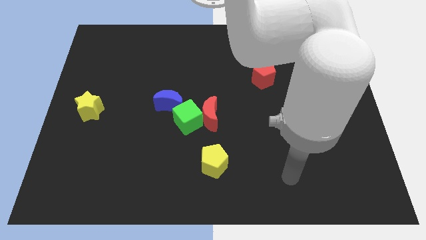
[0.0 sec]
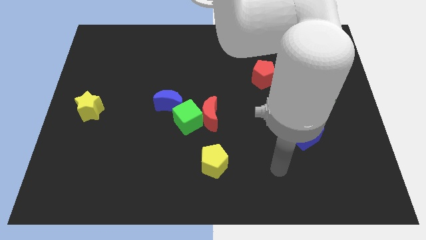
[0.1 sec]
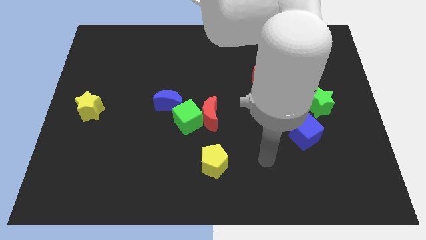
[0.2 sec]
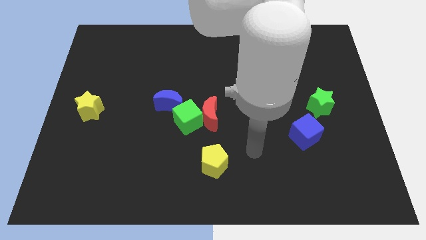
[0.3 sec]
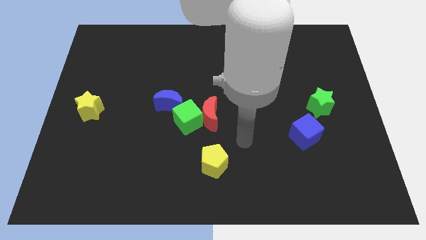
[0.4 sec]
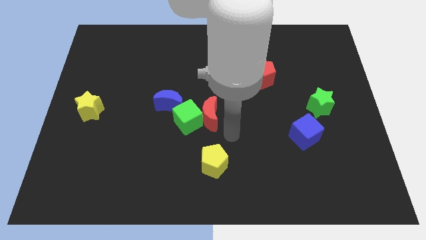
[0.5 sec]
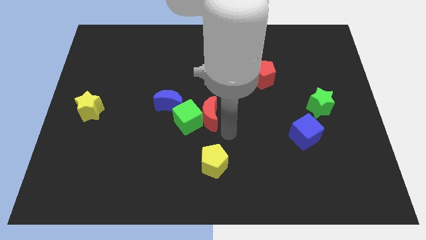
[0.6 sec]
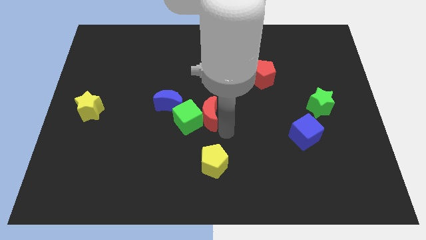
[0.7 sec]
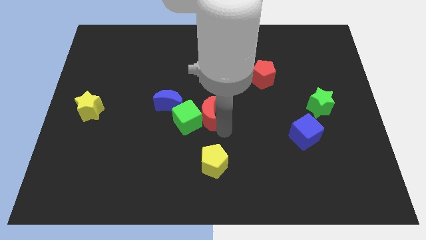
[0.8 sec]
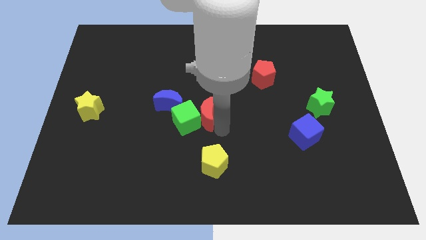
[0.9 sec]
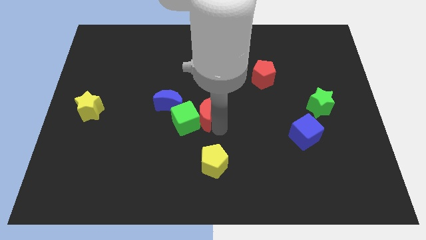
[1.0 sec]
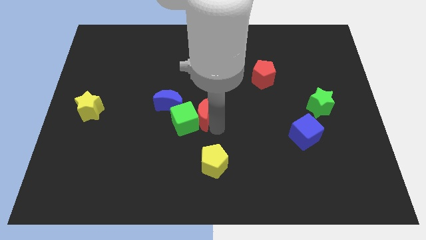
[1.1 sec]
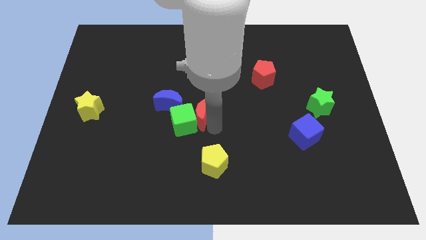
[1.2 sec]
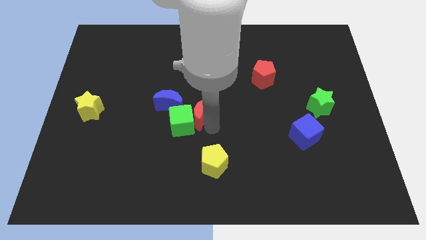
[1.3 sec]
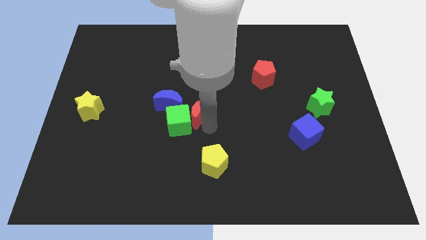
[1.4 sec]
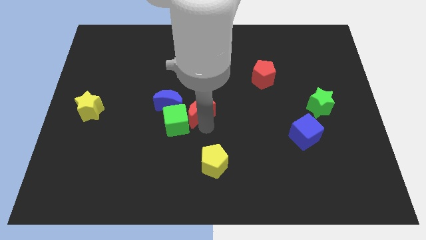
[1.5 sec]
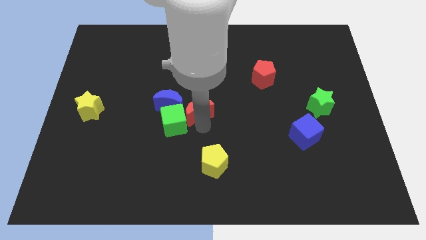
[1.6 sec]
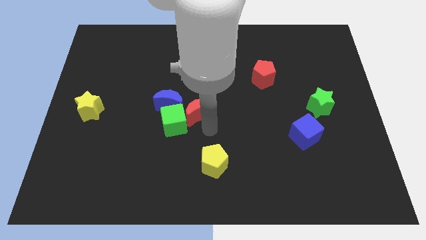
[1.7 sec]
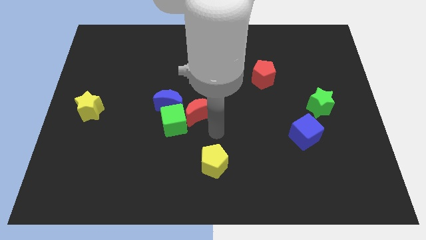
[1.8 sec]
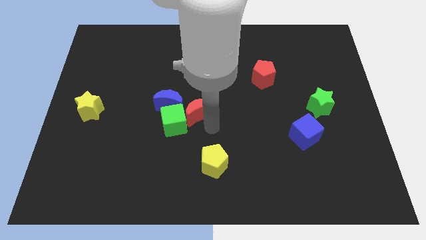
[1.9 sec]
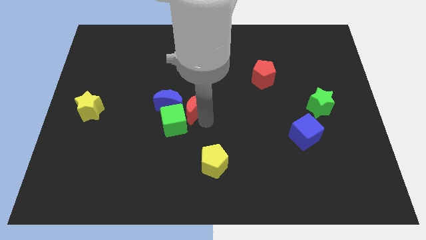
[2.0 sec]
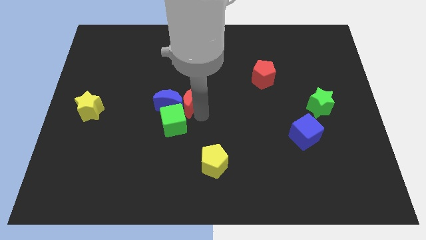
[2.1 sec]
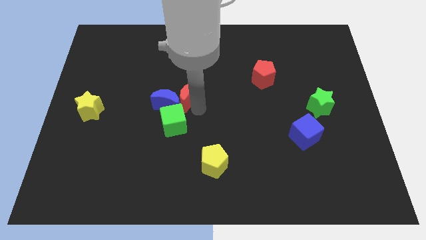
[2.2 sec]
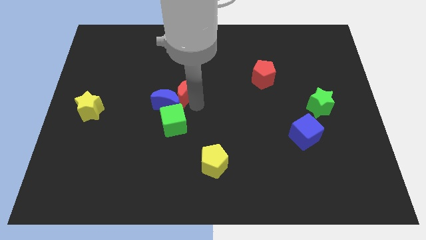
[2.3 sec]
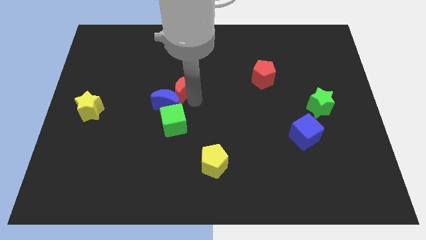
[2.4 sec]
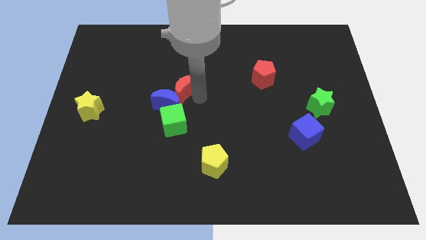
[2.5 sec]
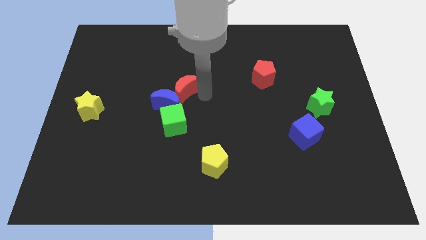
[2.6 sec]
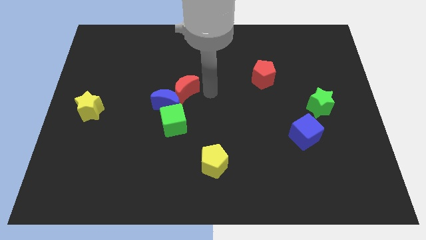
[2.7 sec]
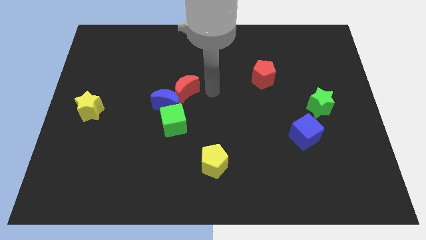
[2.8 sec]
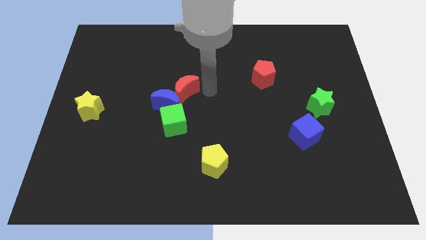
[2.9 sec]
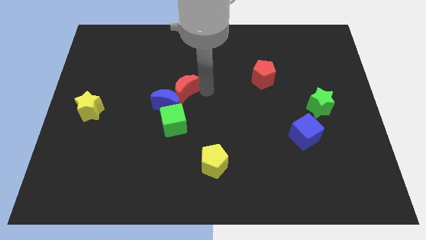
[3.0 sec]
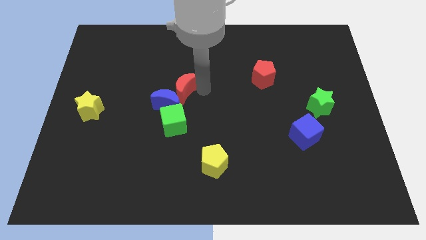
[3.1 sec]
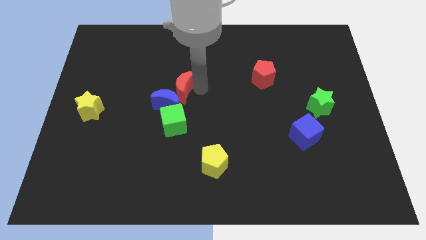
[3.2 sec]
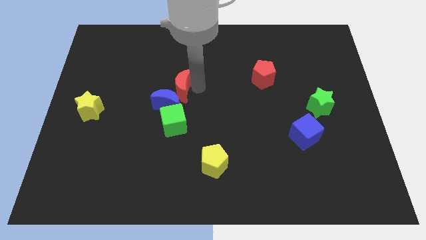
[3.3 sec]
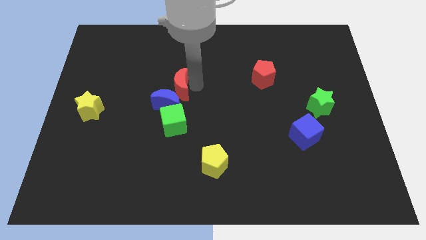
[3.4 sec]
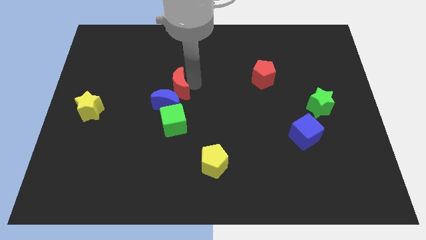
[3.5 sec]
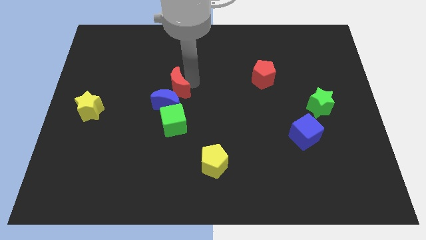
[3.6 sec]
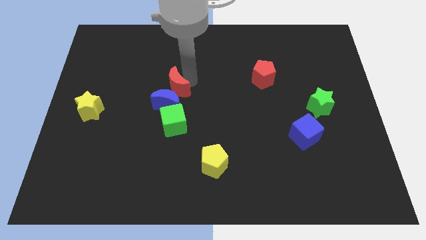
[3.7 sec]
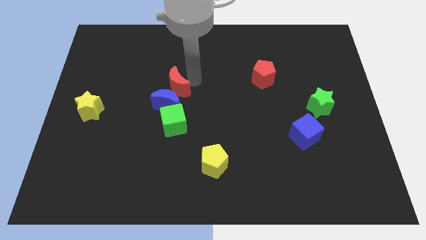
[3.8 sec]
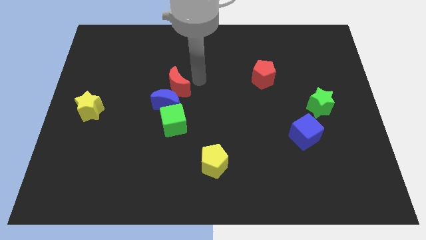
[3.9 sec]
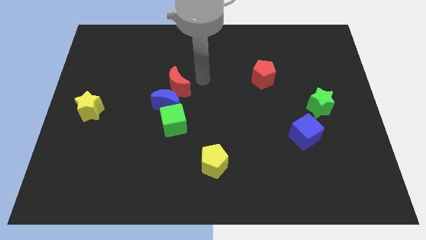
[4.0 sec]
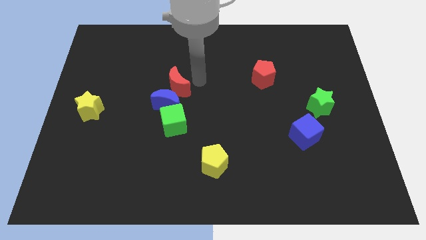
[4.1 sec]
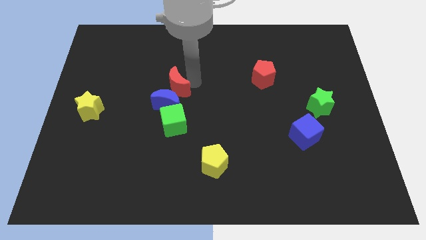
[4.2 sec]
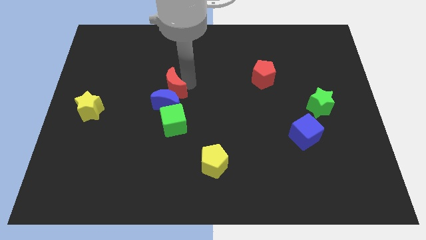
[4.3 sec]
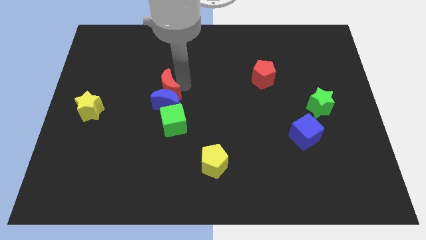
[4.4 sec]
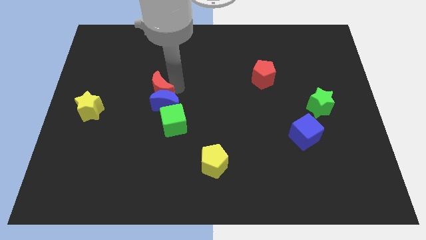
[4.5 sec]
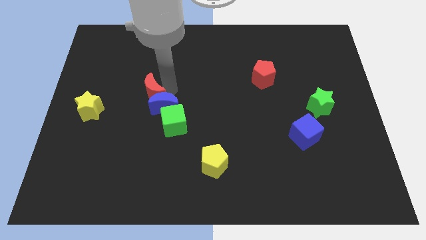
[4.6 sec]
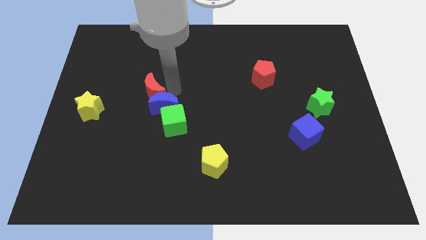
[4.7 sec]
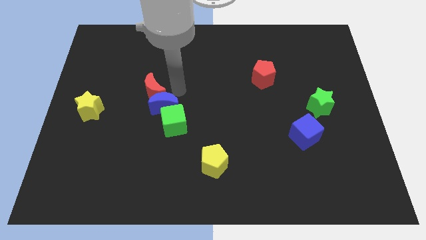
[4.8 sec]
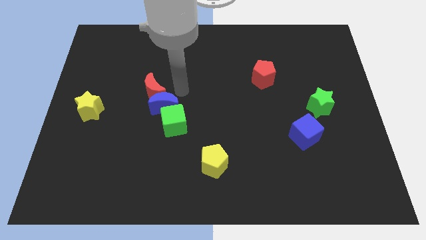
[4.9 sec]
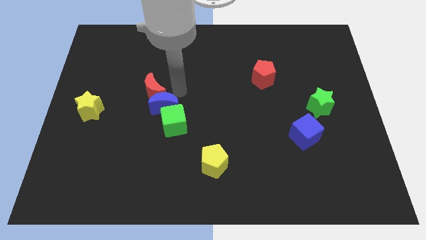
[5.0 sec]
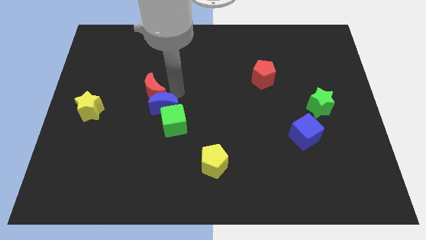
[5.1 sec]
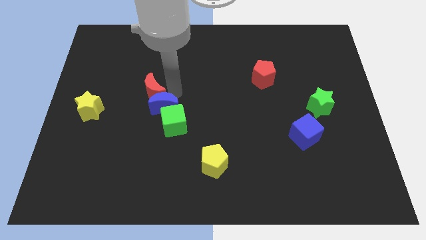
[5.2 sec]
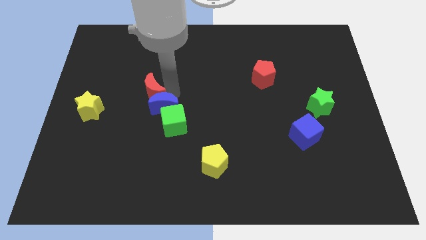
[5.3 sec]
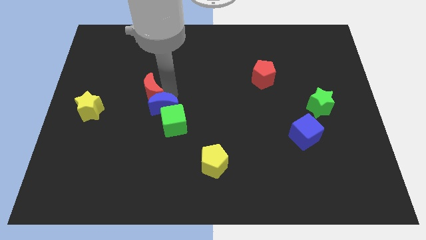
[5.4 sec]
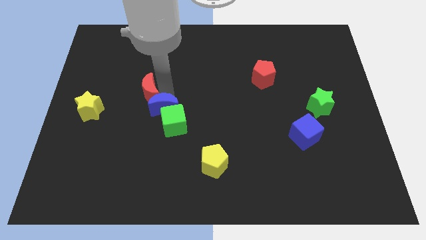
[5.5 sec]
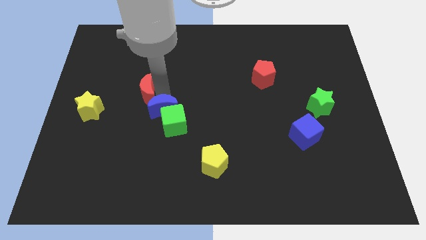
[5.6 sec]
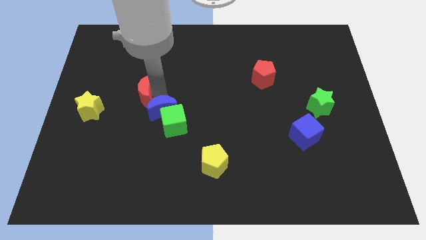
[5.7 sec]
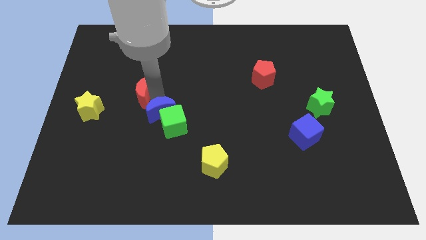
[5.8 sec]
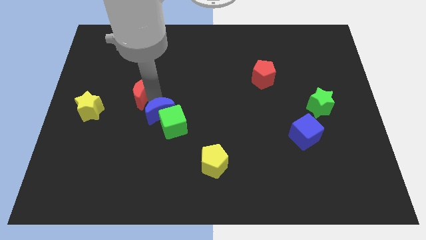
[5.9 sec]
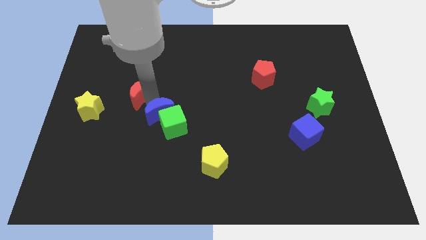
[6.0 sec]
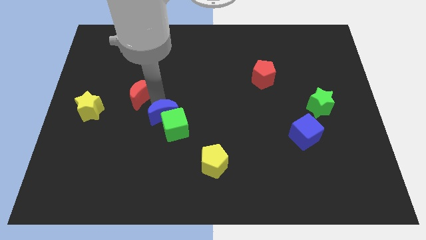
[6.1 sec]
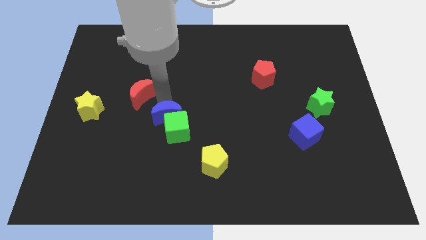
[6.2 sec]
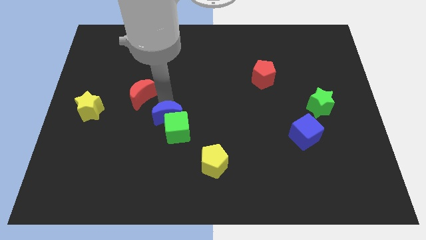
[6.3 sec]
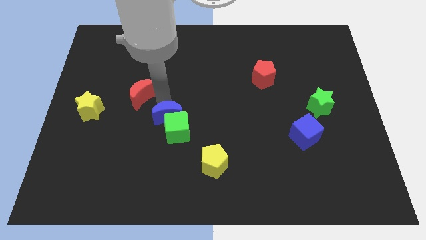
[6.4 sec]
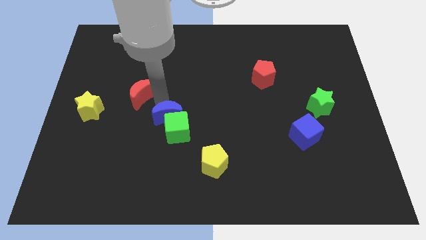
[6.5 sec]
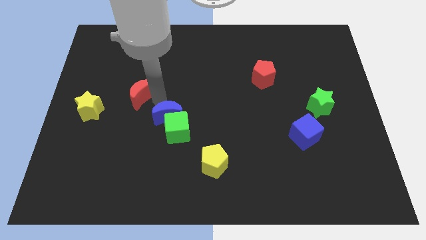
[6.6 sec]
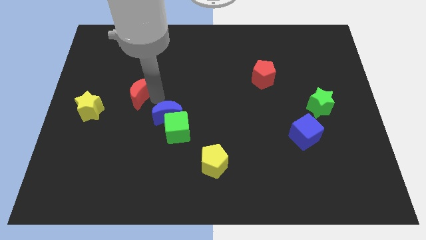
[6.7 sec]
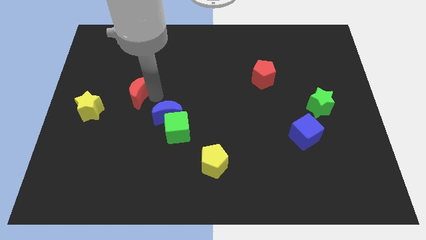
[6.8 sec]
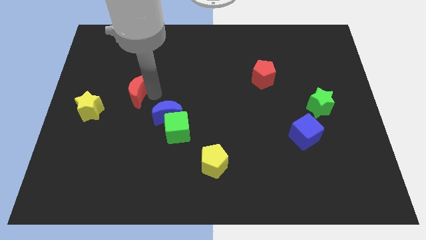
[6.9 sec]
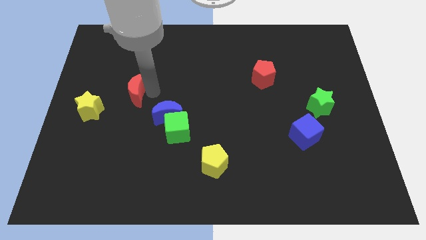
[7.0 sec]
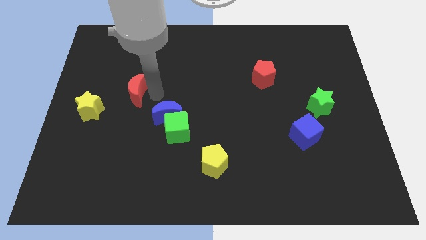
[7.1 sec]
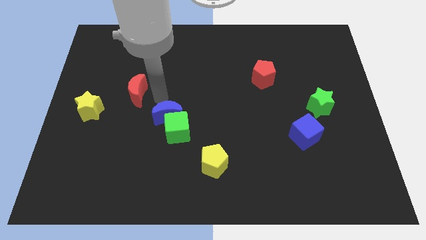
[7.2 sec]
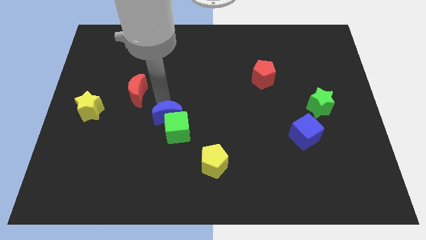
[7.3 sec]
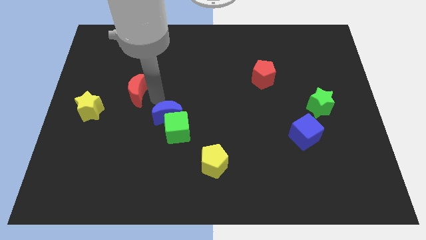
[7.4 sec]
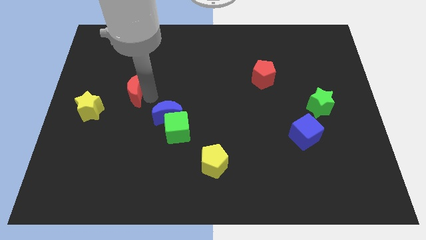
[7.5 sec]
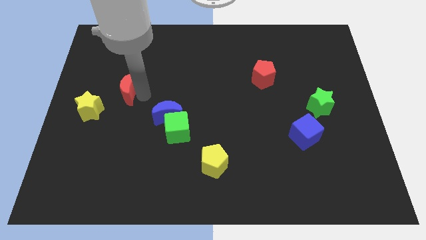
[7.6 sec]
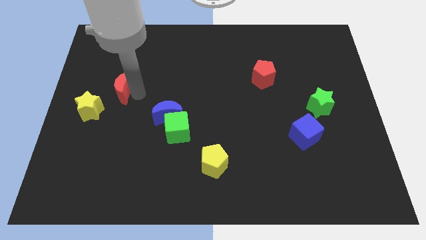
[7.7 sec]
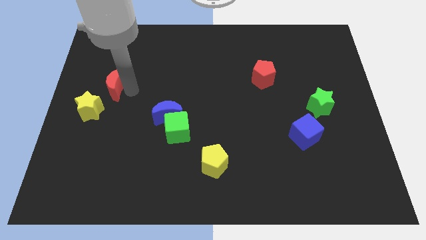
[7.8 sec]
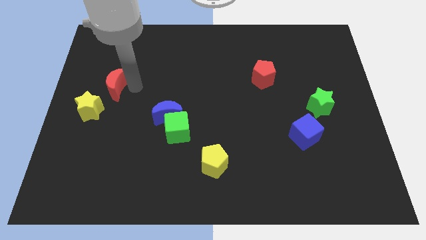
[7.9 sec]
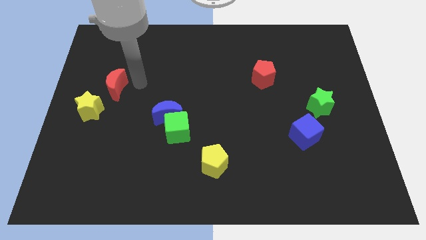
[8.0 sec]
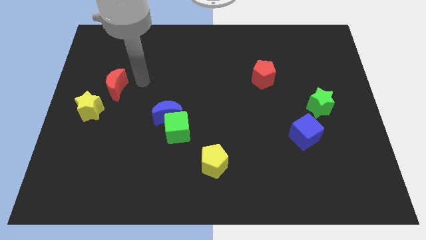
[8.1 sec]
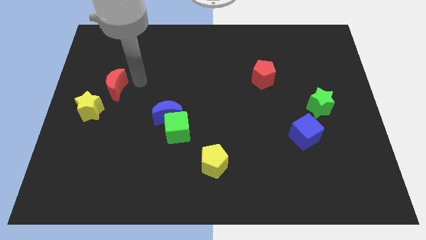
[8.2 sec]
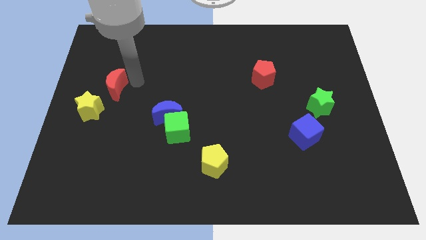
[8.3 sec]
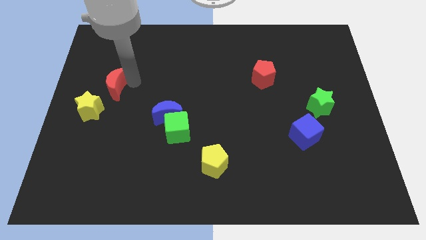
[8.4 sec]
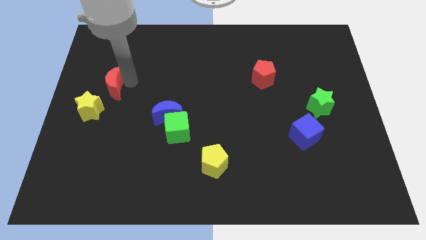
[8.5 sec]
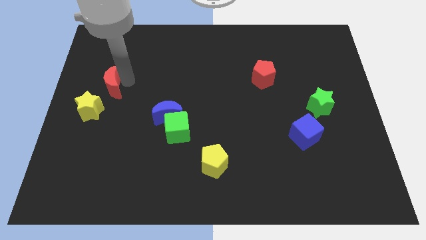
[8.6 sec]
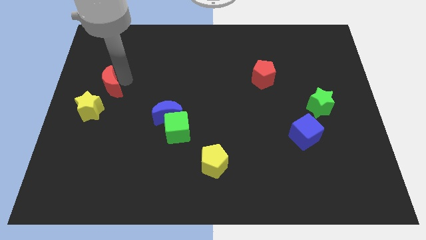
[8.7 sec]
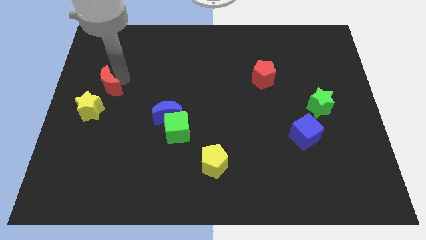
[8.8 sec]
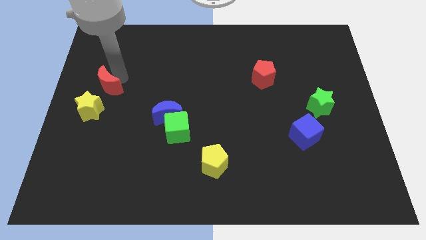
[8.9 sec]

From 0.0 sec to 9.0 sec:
slide the red moon to the left side of the board
